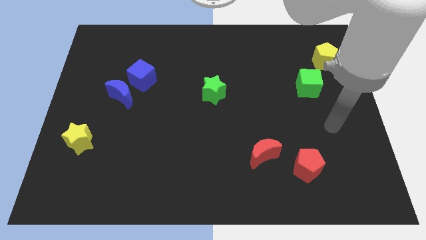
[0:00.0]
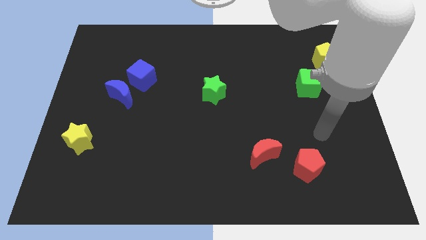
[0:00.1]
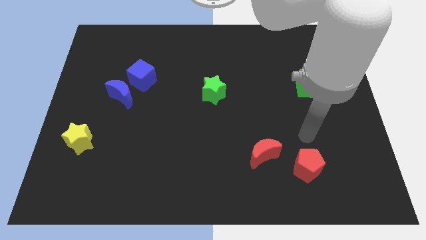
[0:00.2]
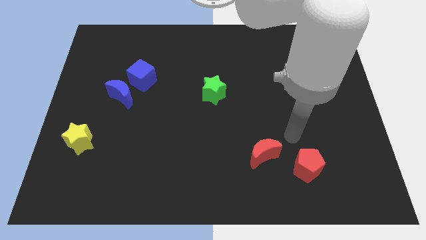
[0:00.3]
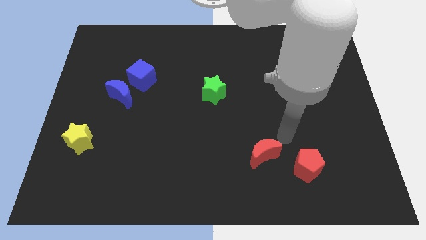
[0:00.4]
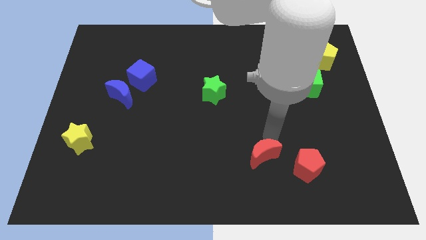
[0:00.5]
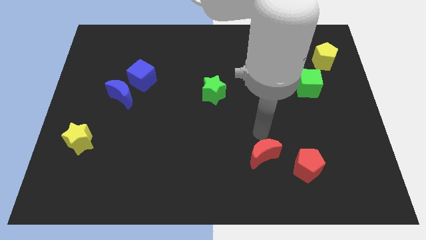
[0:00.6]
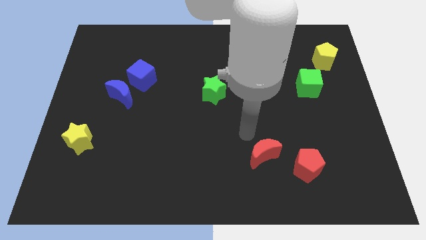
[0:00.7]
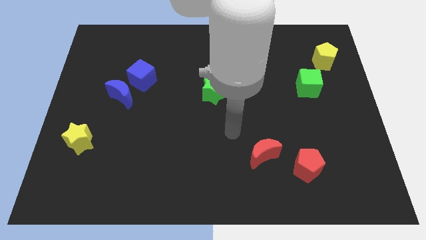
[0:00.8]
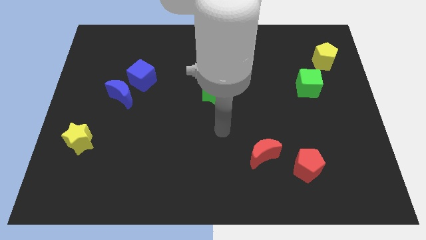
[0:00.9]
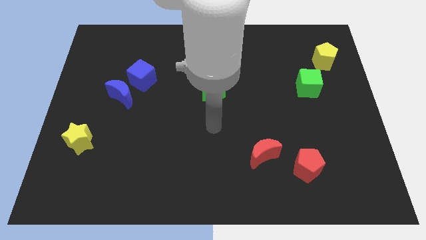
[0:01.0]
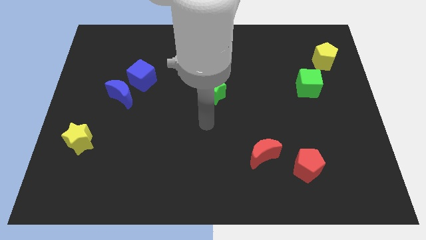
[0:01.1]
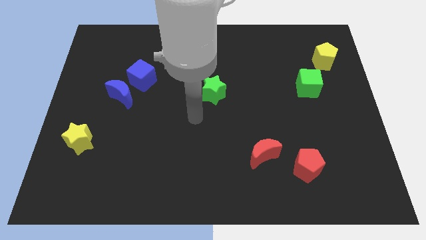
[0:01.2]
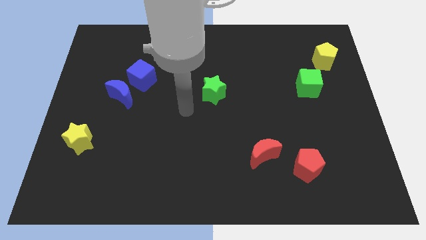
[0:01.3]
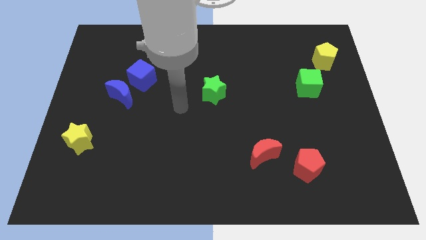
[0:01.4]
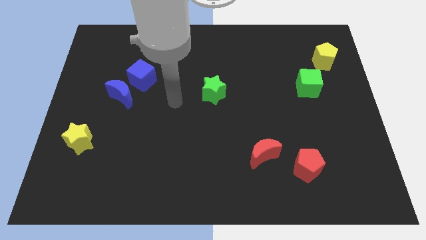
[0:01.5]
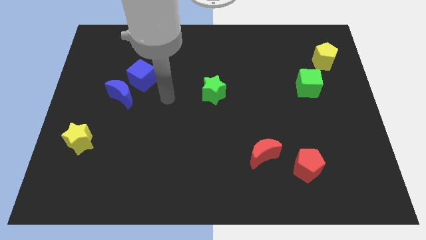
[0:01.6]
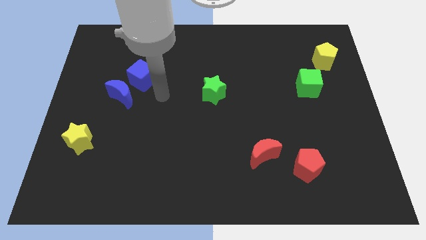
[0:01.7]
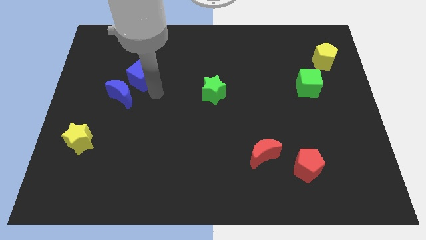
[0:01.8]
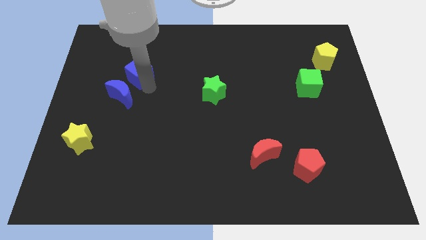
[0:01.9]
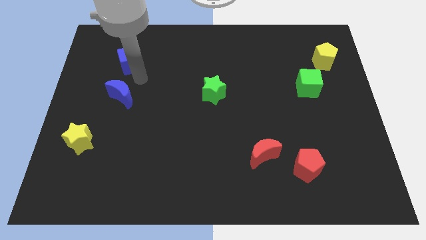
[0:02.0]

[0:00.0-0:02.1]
move the blue moon away from the blue cube

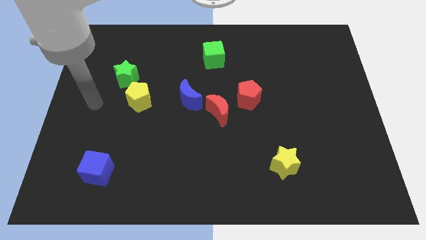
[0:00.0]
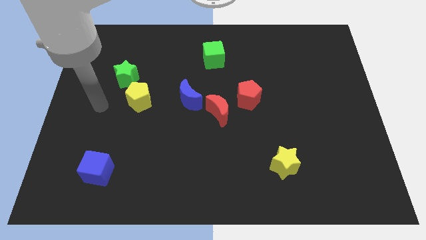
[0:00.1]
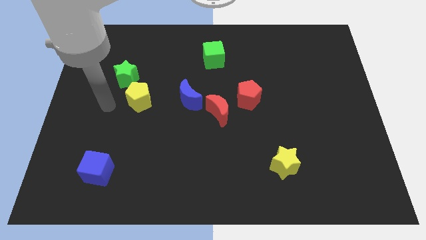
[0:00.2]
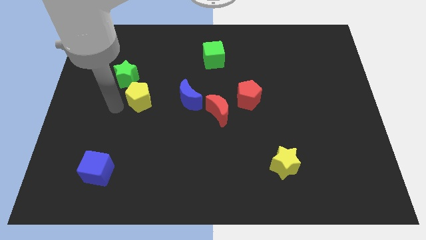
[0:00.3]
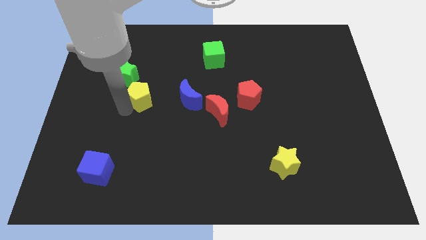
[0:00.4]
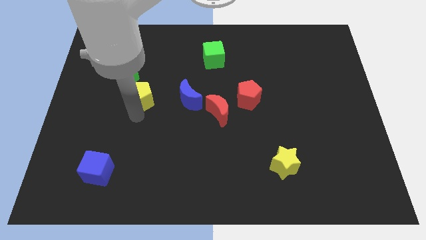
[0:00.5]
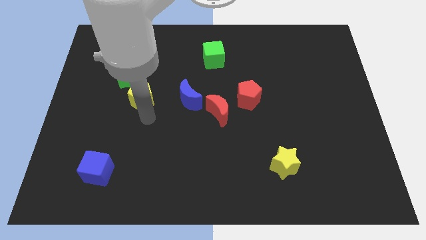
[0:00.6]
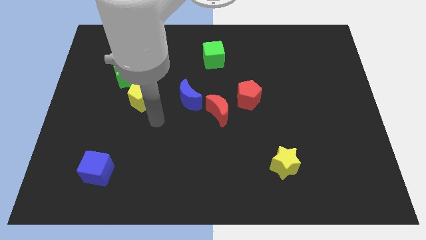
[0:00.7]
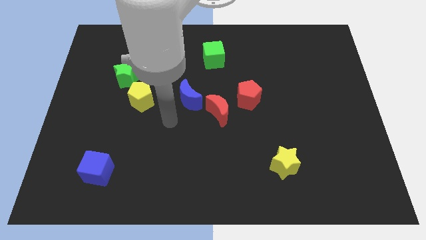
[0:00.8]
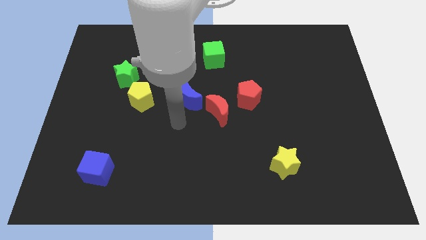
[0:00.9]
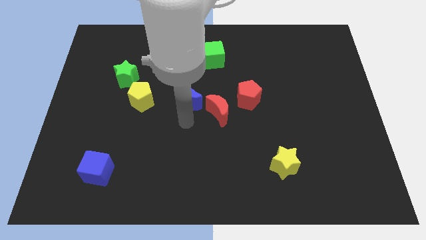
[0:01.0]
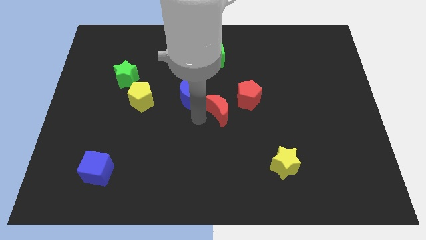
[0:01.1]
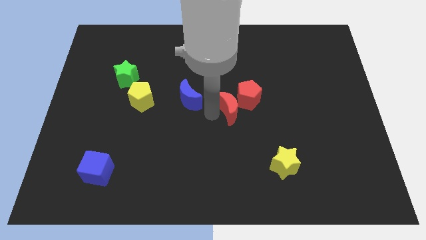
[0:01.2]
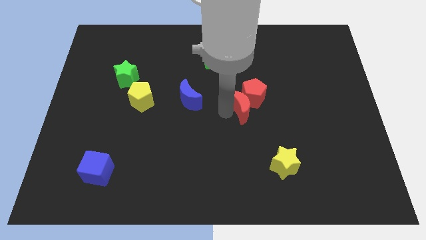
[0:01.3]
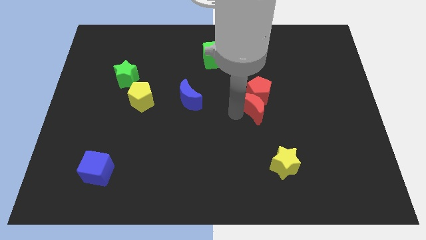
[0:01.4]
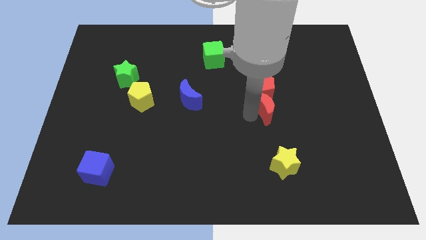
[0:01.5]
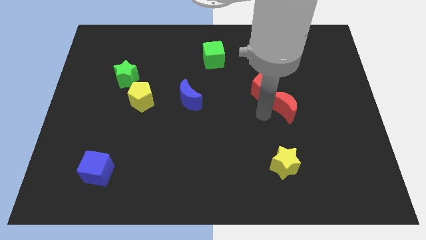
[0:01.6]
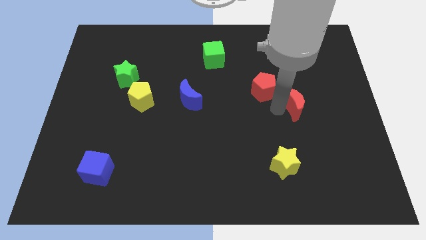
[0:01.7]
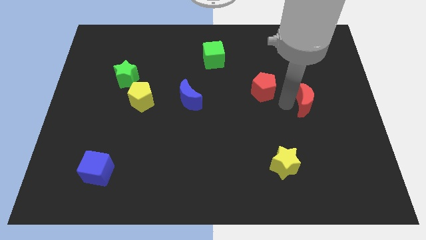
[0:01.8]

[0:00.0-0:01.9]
move the red pentagon away from the red moon

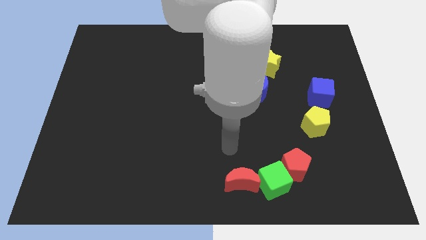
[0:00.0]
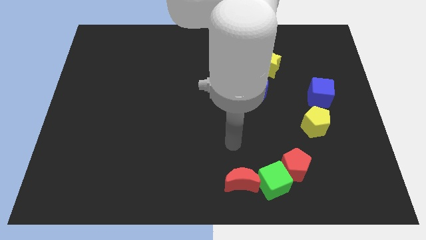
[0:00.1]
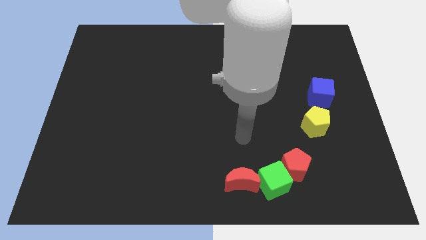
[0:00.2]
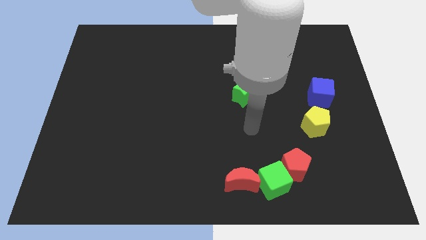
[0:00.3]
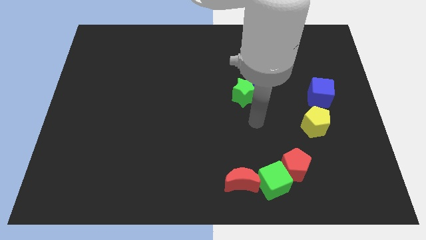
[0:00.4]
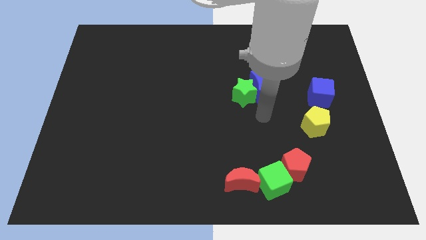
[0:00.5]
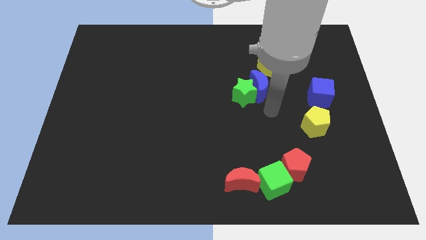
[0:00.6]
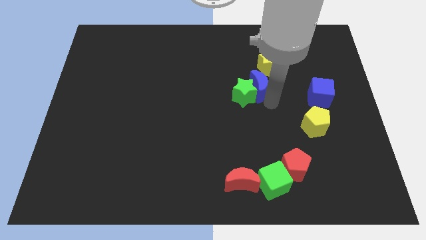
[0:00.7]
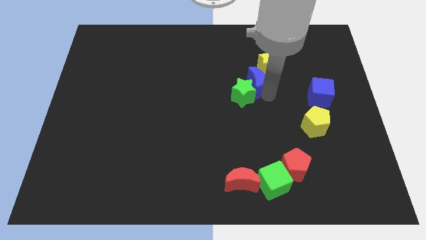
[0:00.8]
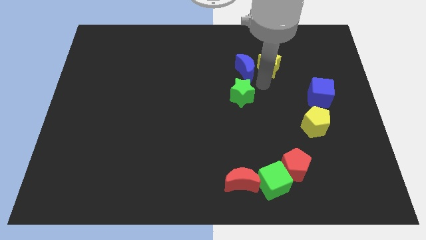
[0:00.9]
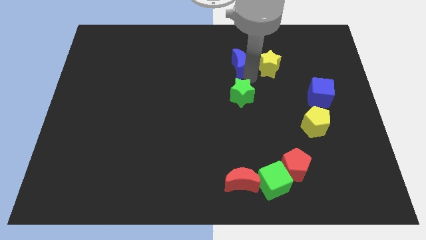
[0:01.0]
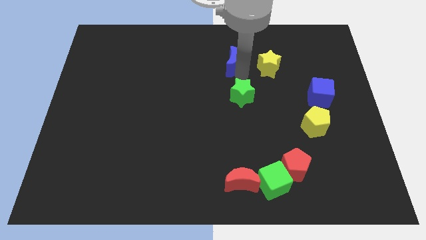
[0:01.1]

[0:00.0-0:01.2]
move the green star away from the blue moon

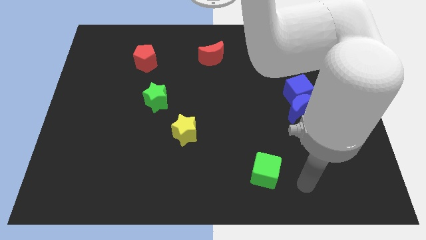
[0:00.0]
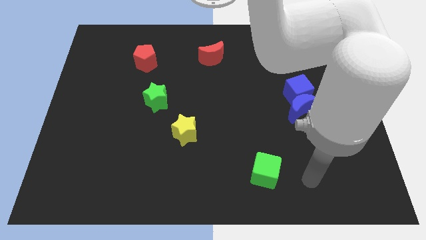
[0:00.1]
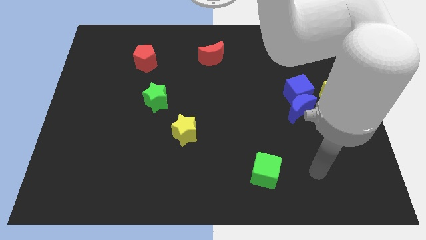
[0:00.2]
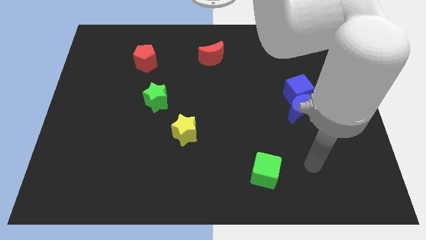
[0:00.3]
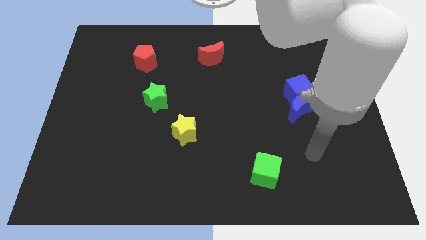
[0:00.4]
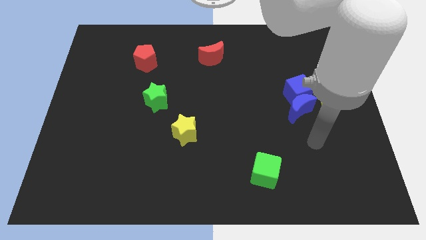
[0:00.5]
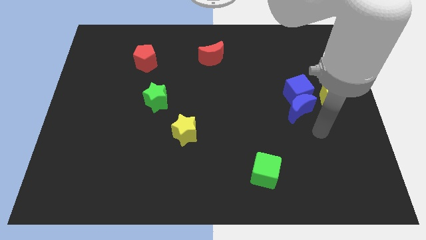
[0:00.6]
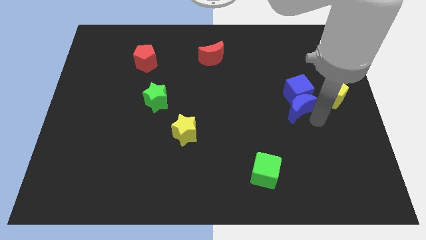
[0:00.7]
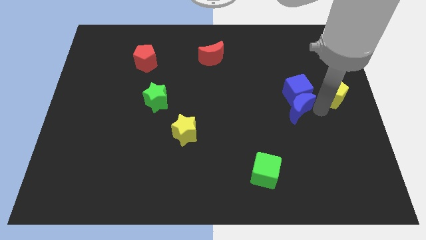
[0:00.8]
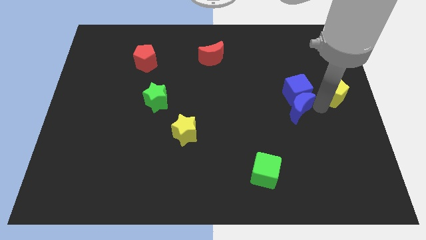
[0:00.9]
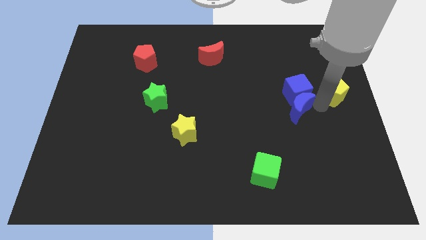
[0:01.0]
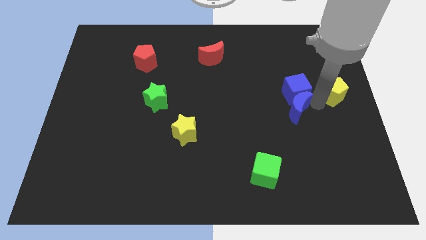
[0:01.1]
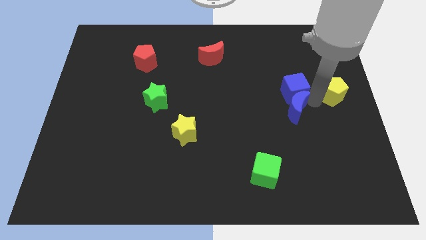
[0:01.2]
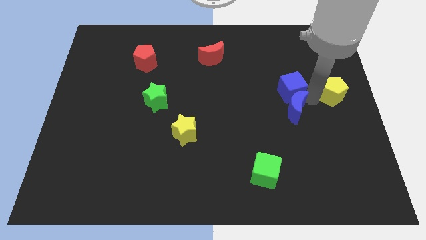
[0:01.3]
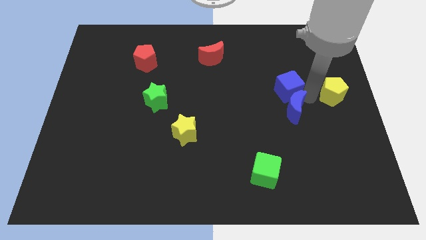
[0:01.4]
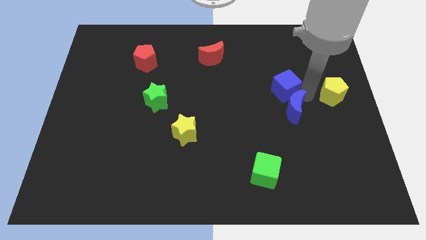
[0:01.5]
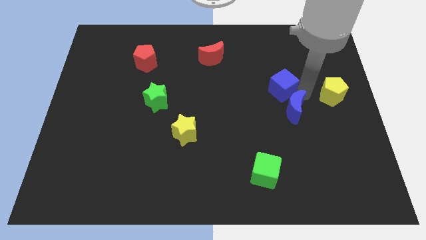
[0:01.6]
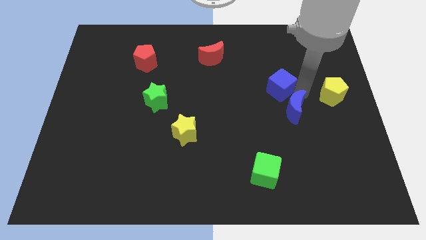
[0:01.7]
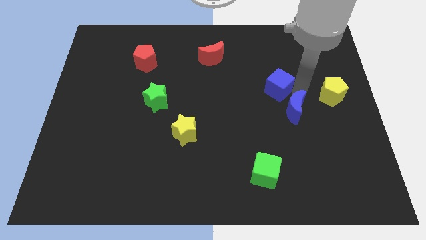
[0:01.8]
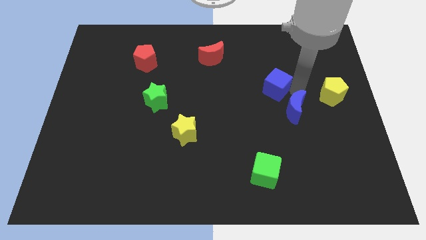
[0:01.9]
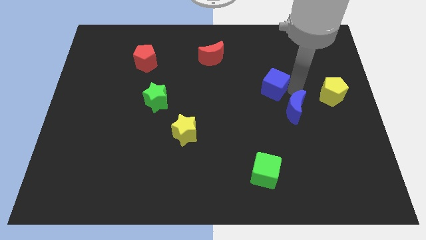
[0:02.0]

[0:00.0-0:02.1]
pull the blue cube apart from the blue moon and yellow pentagon

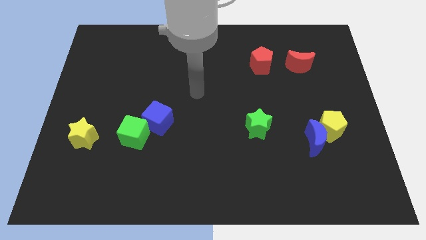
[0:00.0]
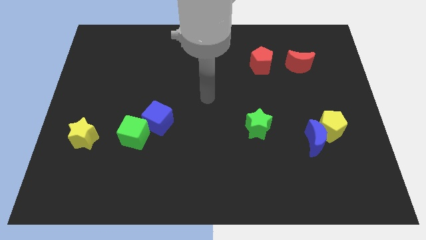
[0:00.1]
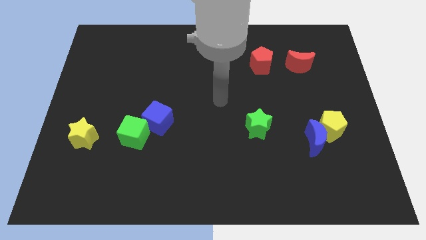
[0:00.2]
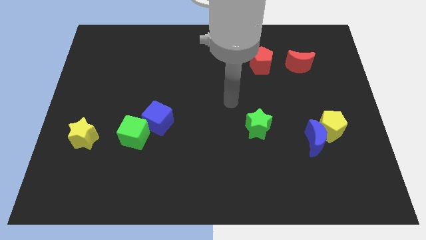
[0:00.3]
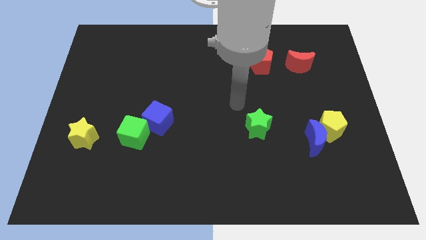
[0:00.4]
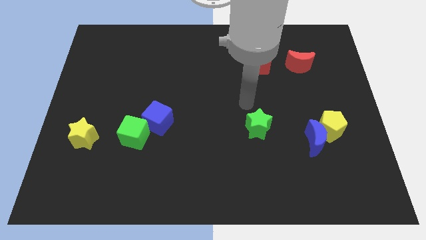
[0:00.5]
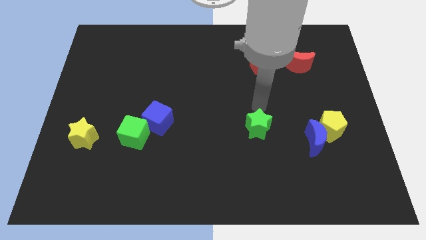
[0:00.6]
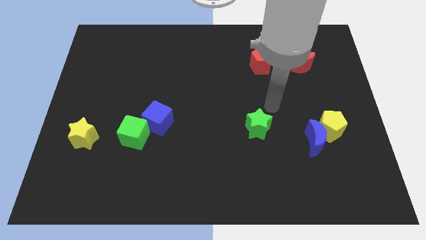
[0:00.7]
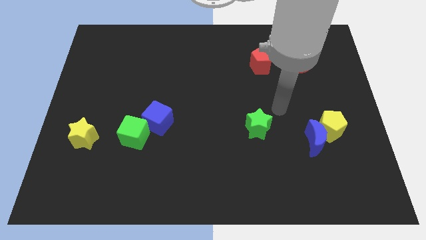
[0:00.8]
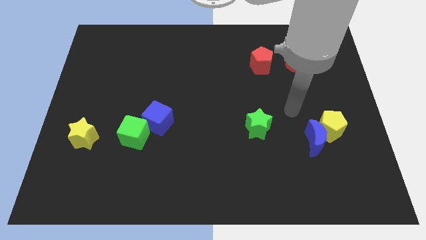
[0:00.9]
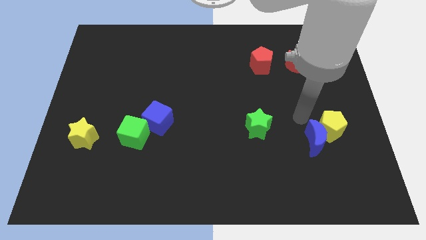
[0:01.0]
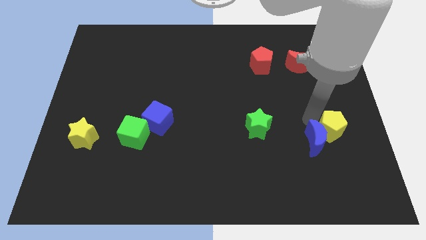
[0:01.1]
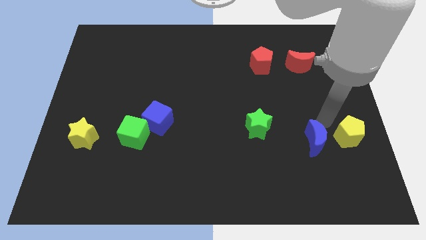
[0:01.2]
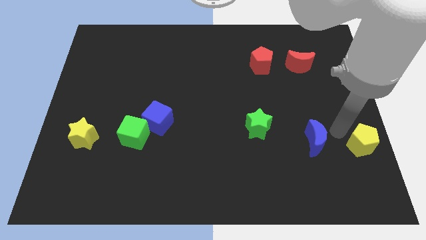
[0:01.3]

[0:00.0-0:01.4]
pull the blue moon apart from the yellow pentagon

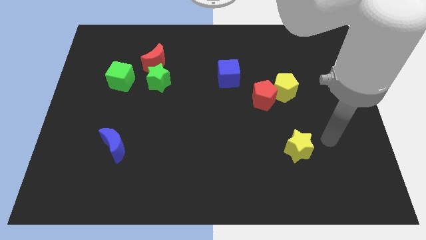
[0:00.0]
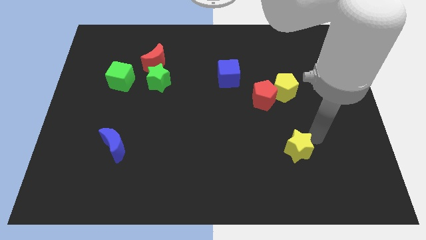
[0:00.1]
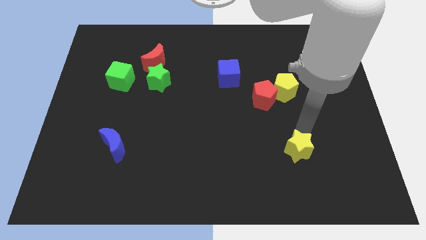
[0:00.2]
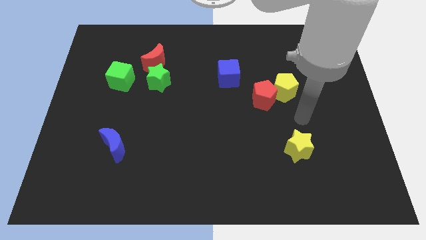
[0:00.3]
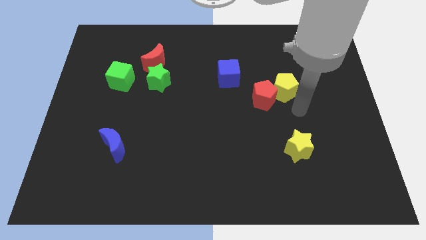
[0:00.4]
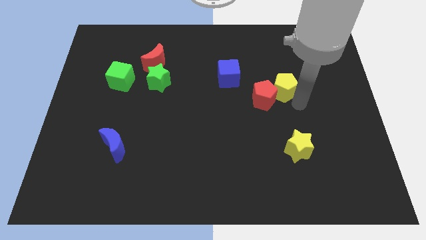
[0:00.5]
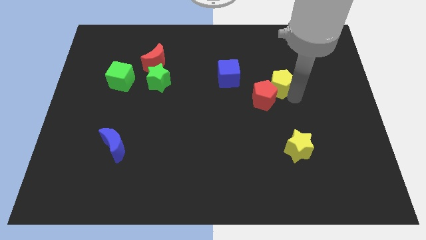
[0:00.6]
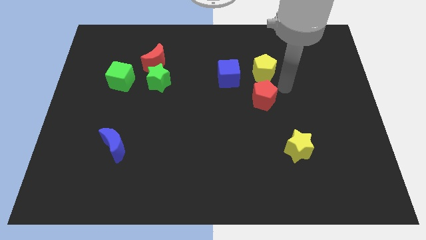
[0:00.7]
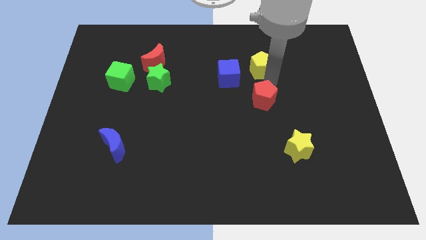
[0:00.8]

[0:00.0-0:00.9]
separate the red pentagon from the yellow pentagon
